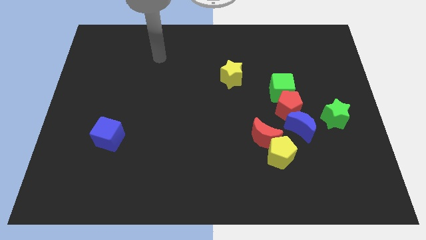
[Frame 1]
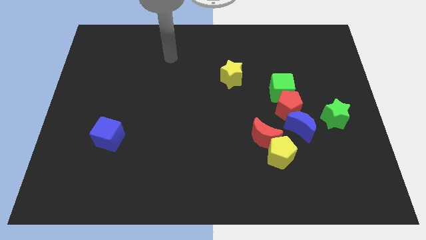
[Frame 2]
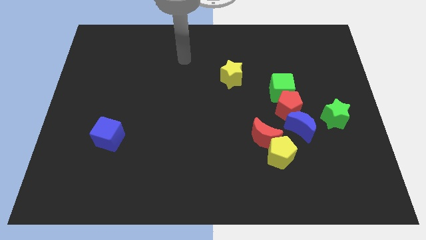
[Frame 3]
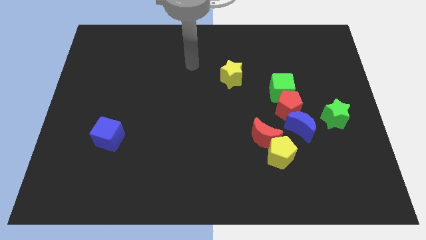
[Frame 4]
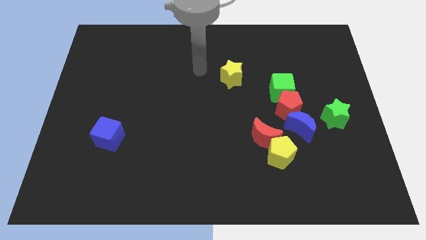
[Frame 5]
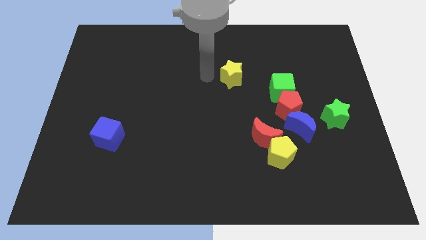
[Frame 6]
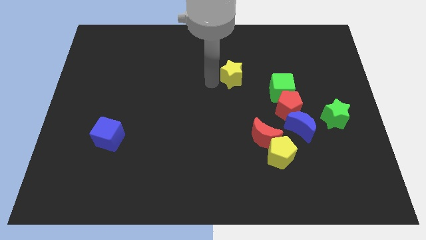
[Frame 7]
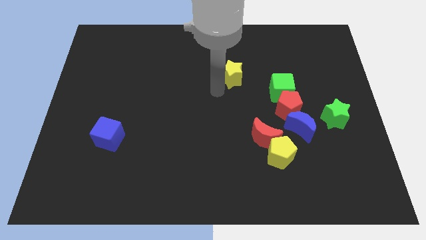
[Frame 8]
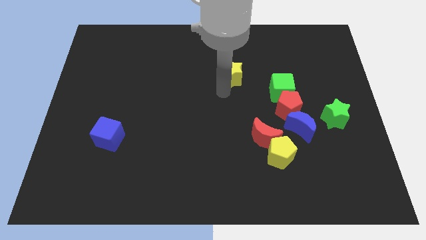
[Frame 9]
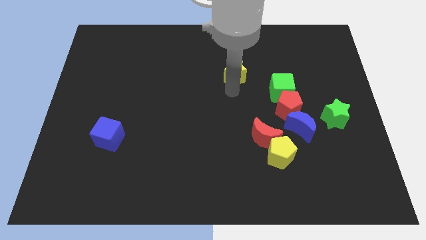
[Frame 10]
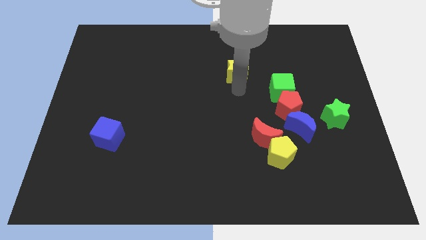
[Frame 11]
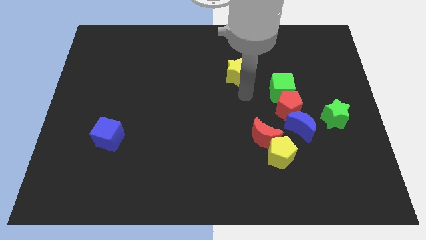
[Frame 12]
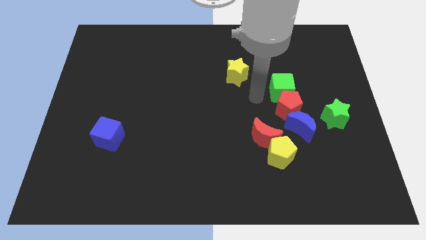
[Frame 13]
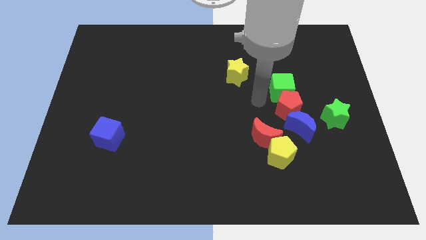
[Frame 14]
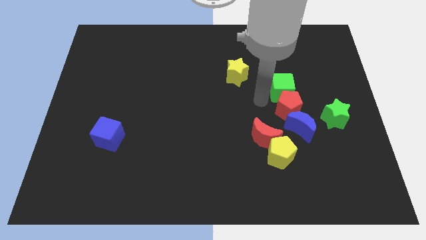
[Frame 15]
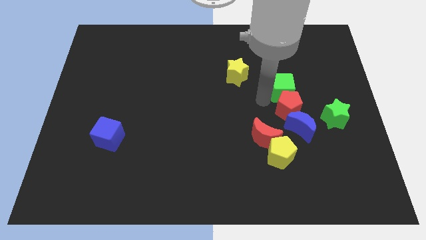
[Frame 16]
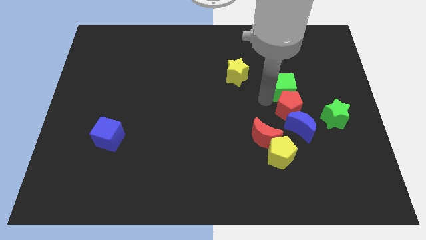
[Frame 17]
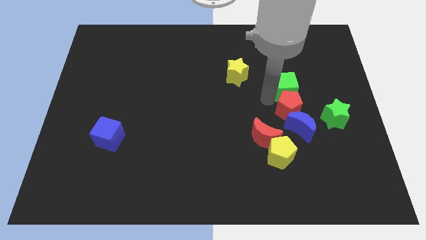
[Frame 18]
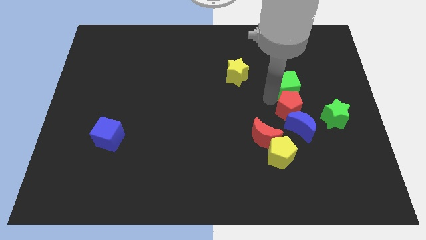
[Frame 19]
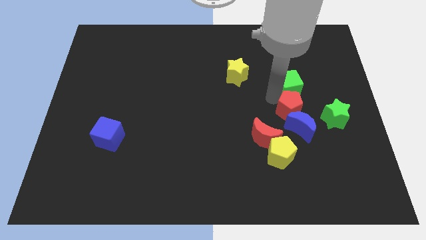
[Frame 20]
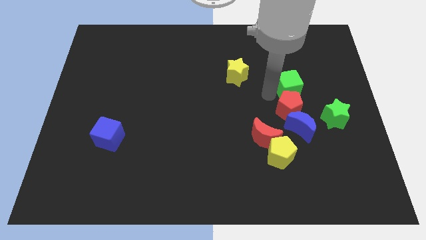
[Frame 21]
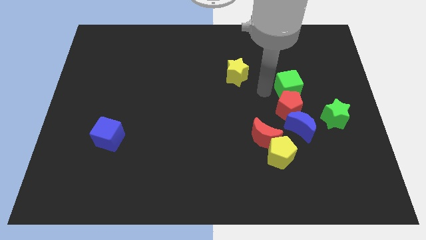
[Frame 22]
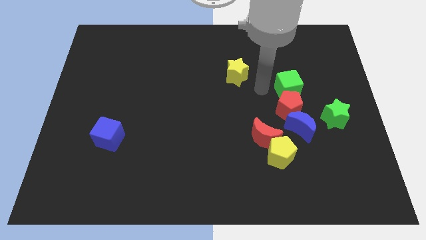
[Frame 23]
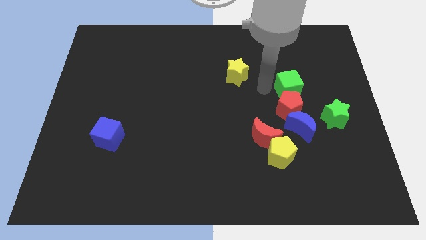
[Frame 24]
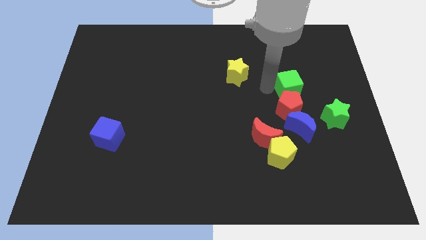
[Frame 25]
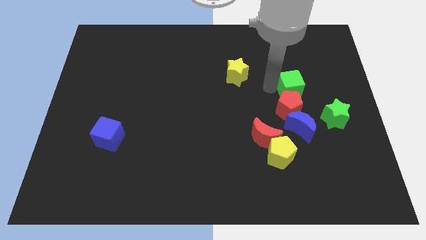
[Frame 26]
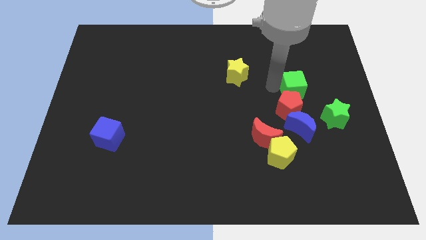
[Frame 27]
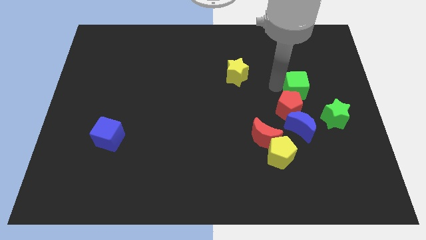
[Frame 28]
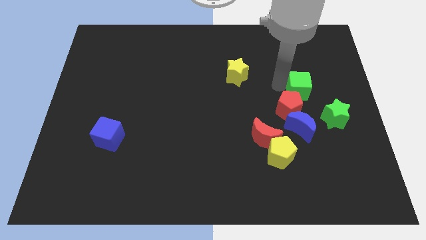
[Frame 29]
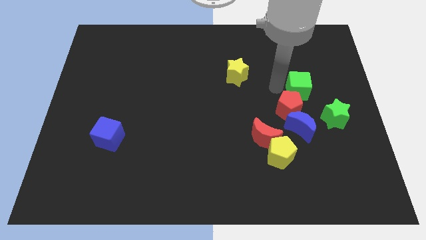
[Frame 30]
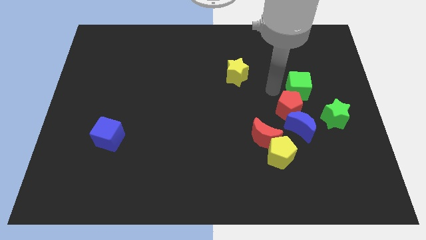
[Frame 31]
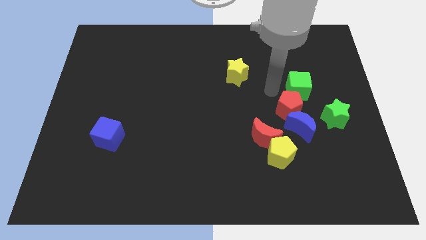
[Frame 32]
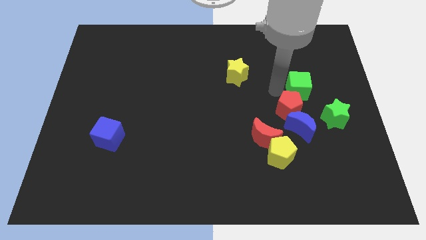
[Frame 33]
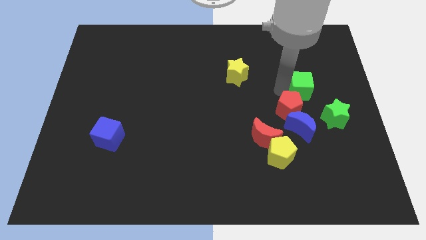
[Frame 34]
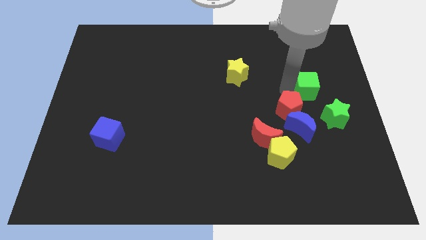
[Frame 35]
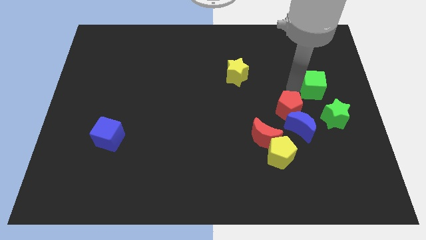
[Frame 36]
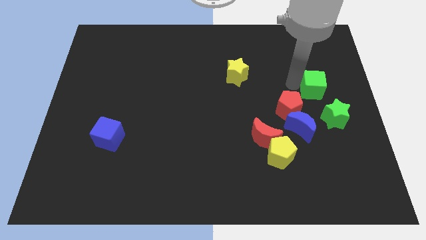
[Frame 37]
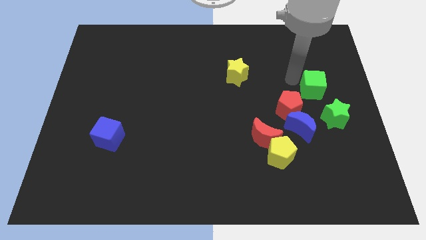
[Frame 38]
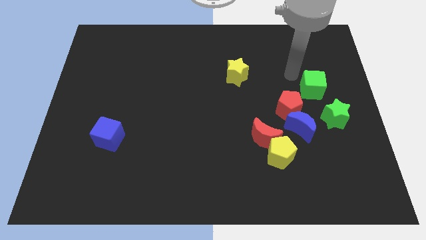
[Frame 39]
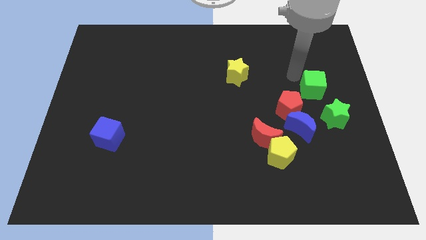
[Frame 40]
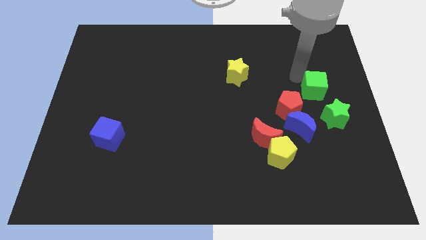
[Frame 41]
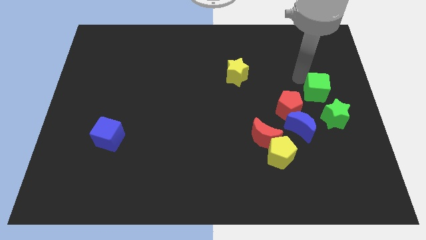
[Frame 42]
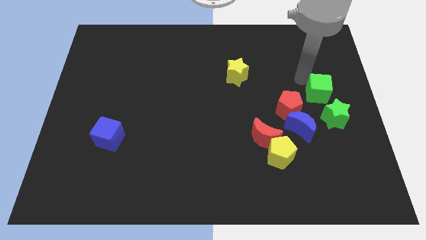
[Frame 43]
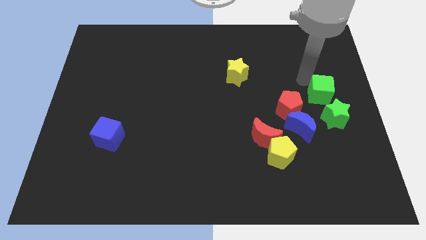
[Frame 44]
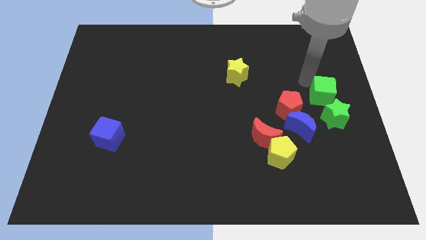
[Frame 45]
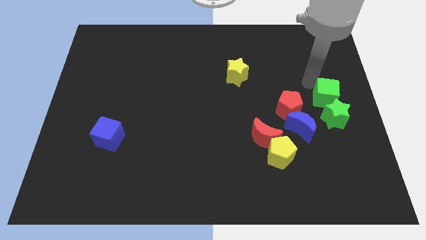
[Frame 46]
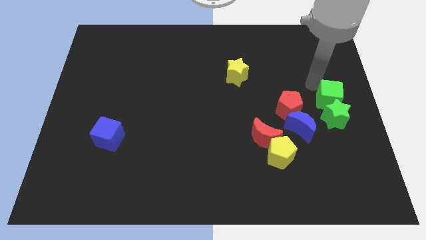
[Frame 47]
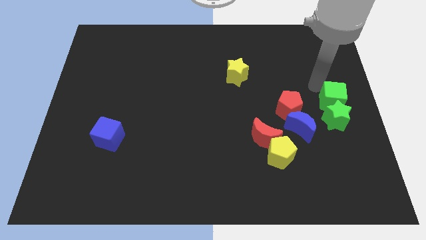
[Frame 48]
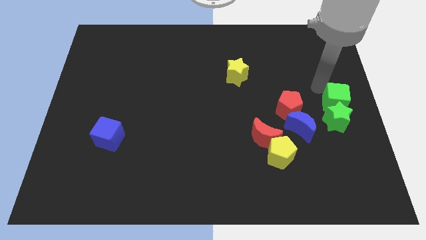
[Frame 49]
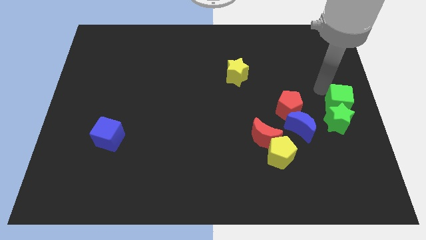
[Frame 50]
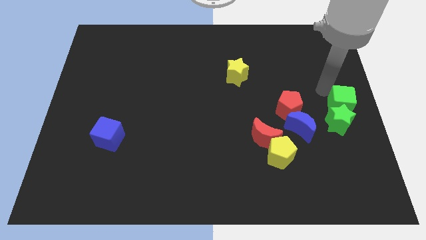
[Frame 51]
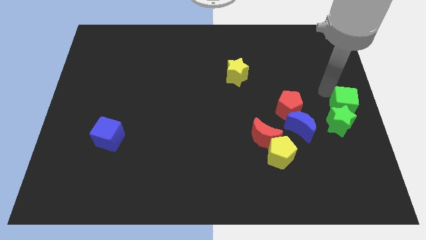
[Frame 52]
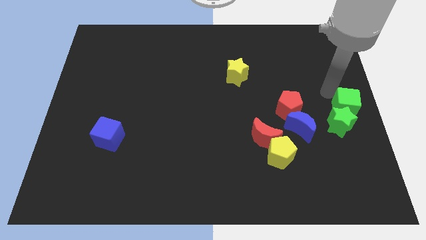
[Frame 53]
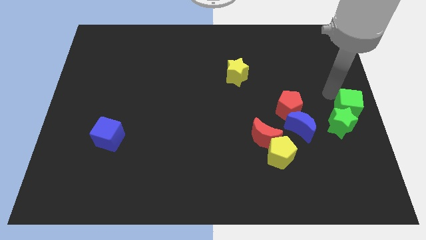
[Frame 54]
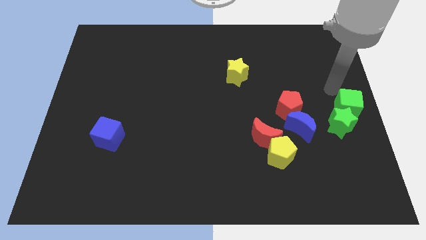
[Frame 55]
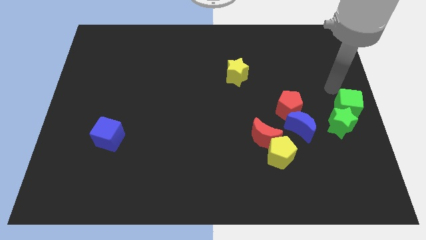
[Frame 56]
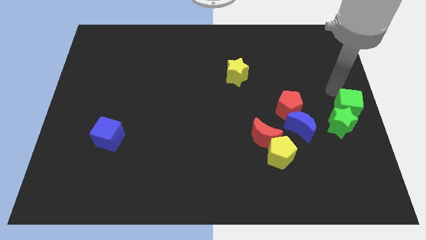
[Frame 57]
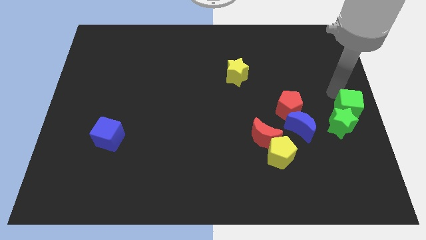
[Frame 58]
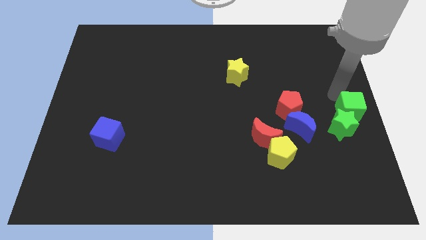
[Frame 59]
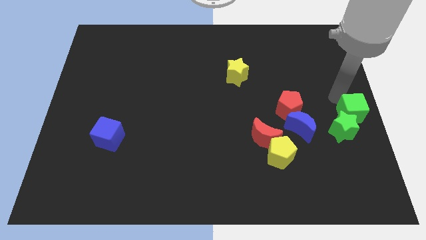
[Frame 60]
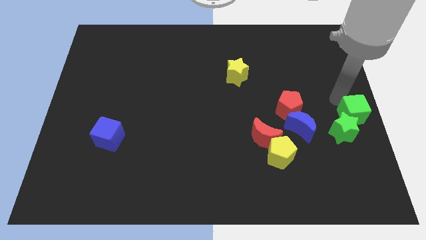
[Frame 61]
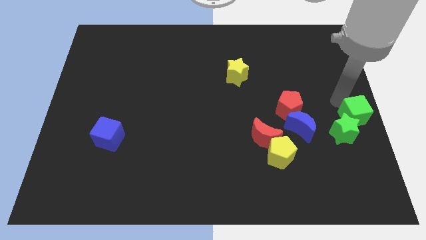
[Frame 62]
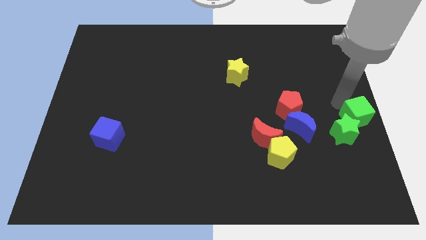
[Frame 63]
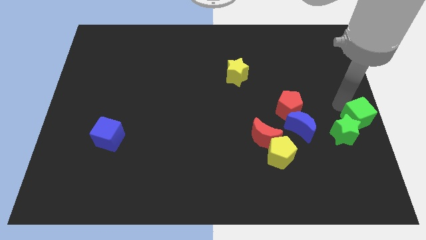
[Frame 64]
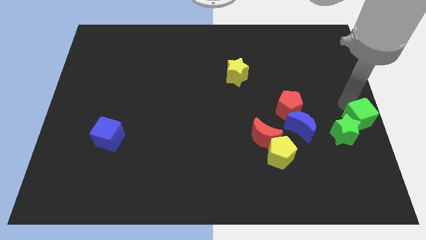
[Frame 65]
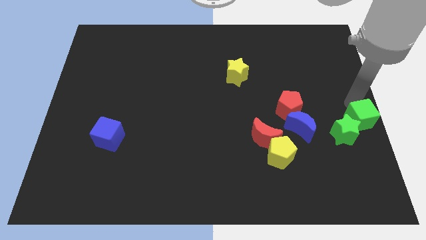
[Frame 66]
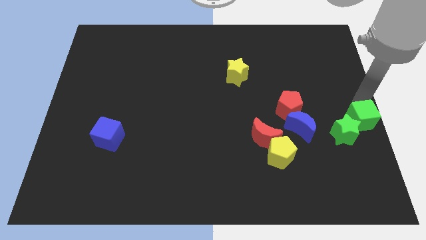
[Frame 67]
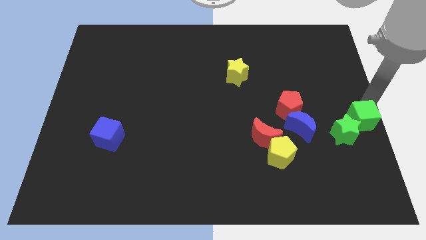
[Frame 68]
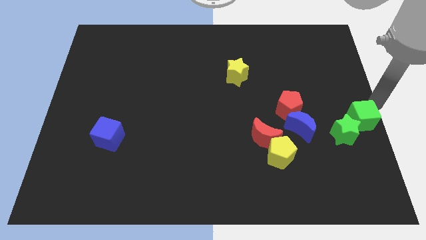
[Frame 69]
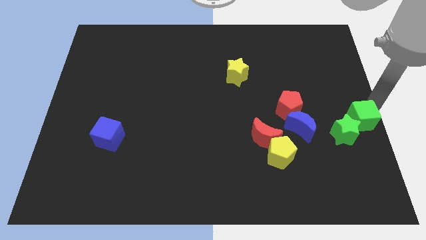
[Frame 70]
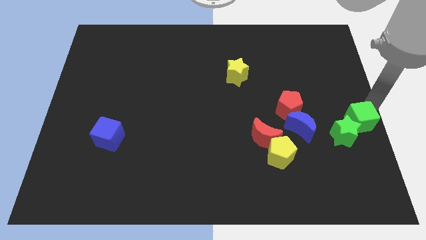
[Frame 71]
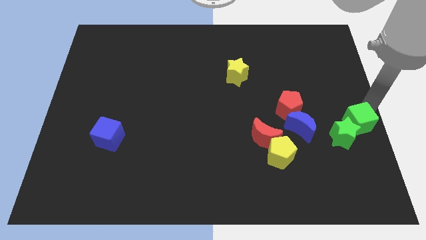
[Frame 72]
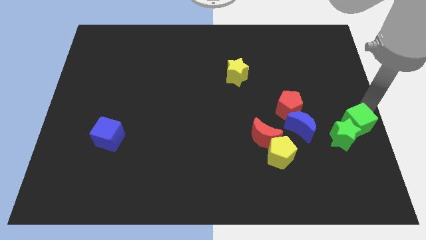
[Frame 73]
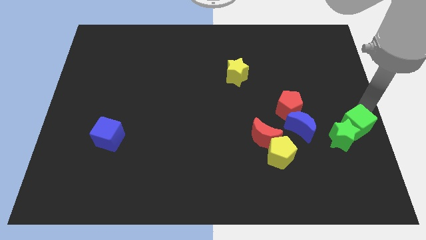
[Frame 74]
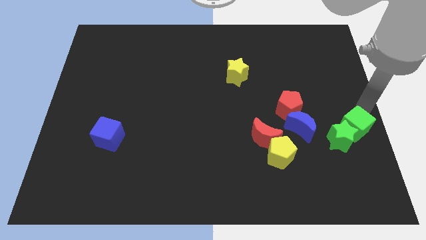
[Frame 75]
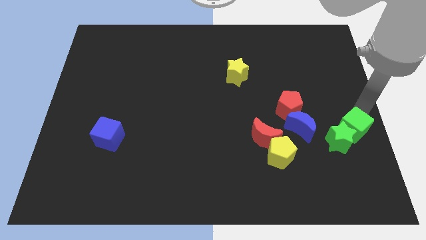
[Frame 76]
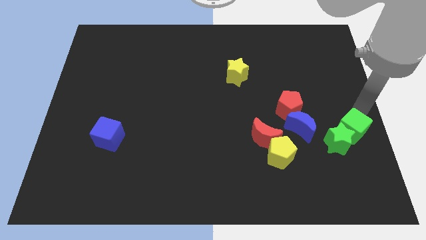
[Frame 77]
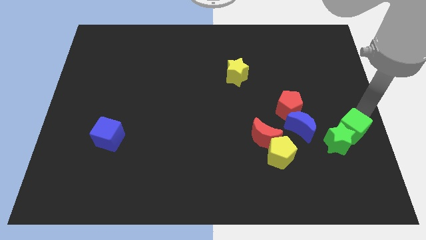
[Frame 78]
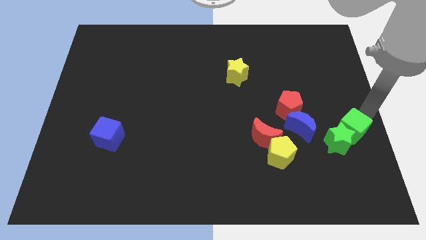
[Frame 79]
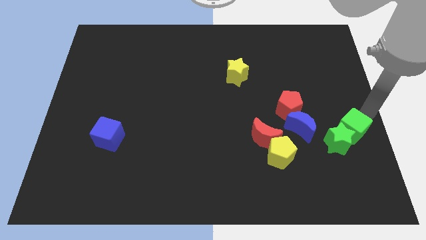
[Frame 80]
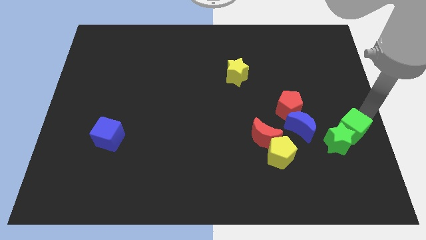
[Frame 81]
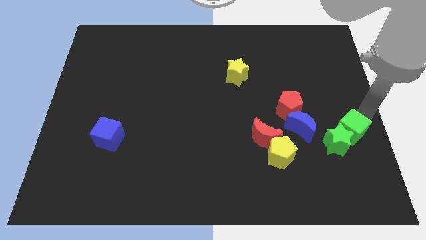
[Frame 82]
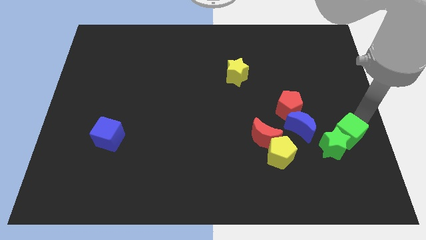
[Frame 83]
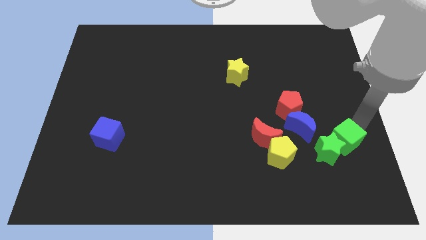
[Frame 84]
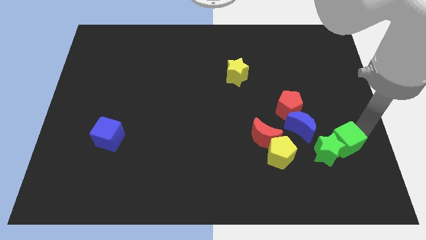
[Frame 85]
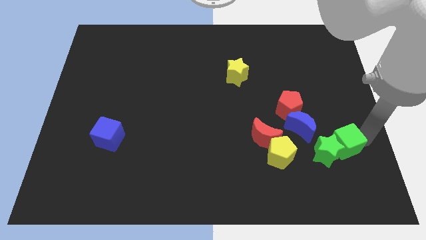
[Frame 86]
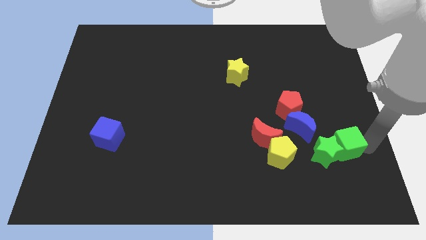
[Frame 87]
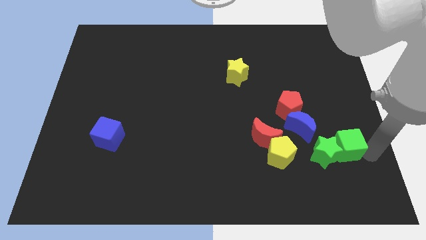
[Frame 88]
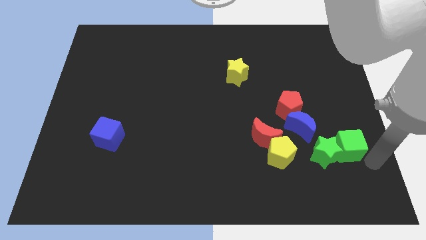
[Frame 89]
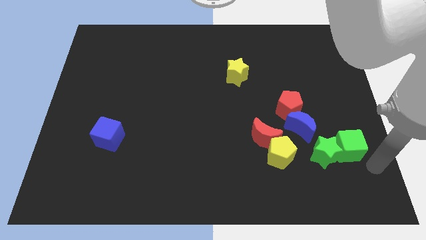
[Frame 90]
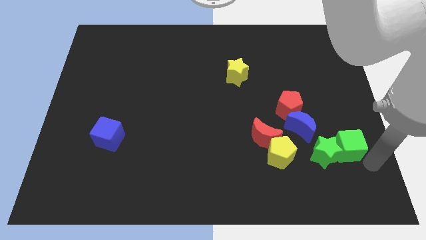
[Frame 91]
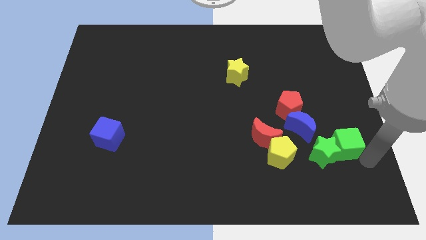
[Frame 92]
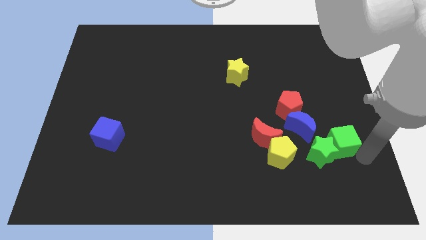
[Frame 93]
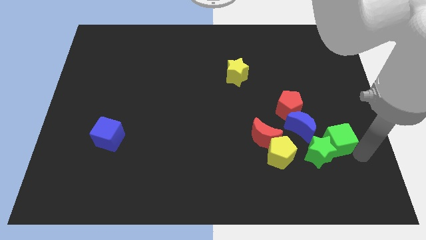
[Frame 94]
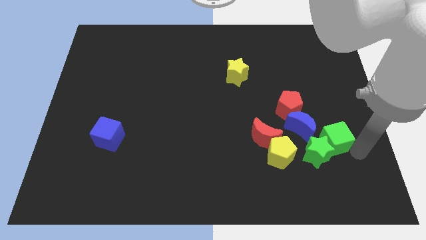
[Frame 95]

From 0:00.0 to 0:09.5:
move the green cube diagonally down and to the right of the red pentagon
